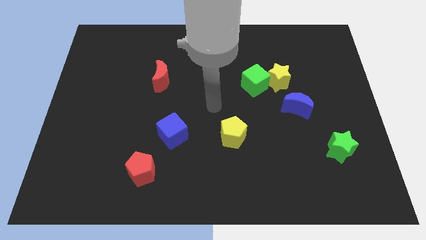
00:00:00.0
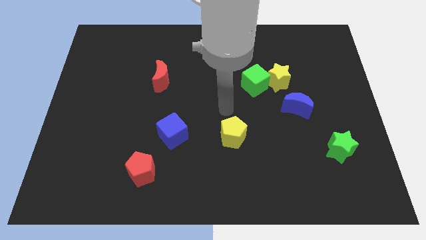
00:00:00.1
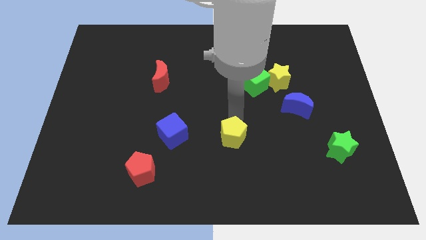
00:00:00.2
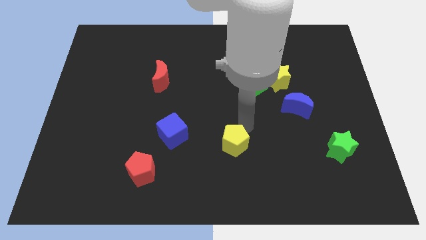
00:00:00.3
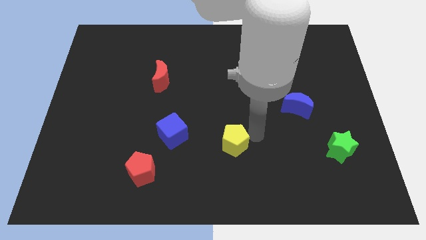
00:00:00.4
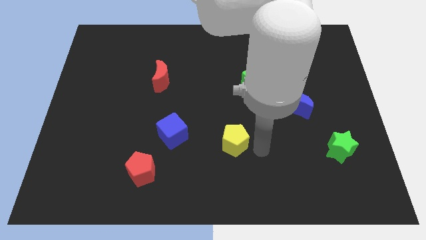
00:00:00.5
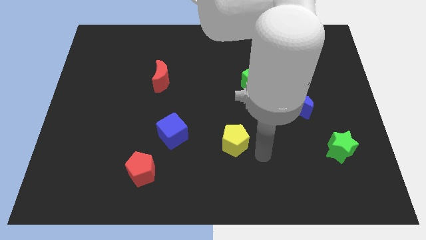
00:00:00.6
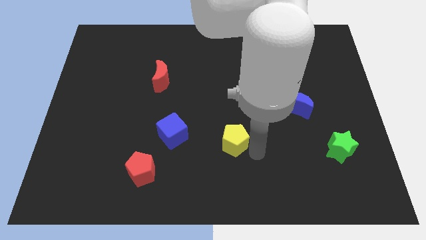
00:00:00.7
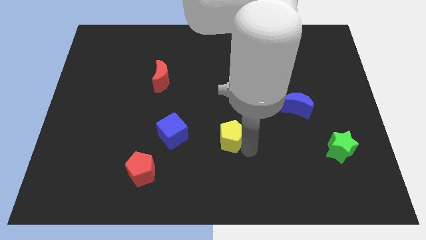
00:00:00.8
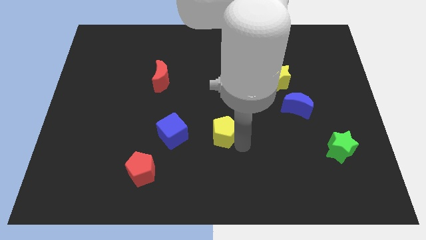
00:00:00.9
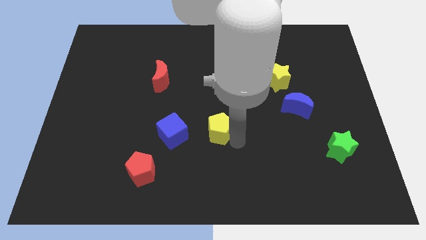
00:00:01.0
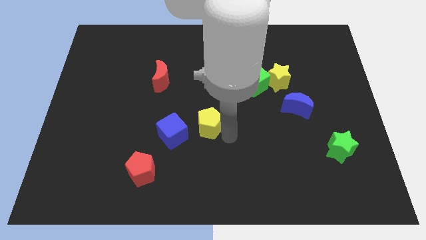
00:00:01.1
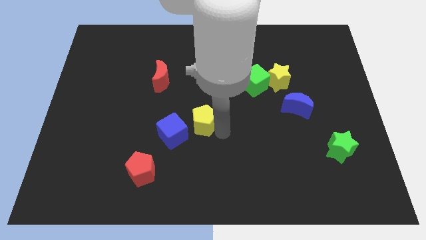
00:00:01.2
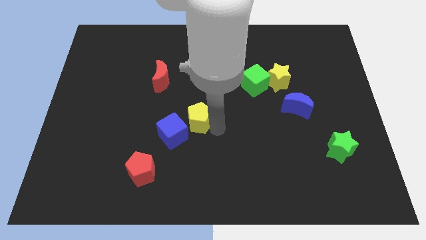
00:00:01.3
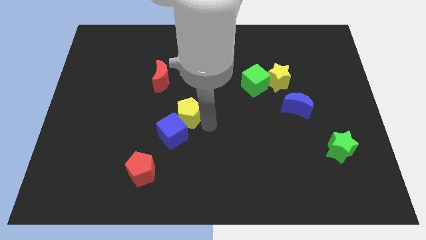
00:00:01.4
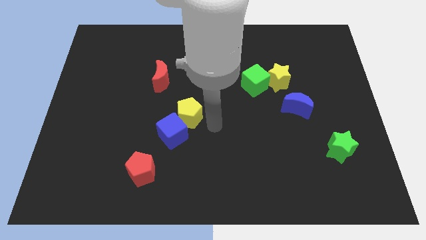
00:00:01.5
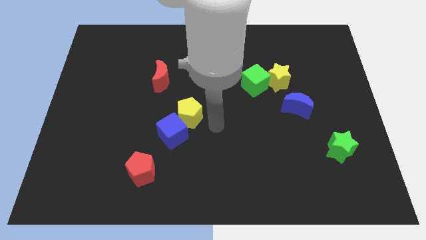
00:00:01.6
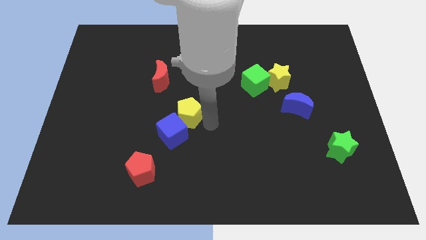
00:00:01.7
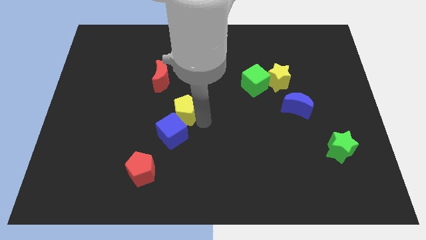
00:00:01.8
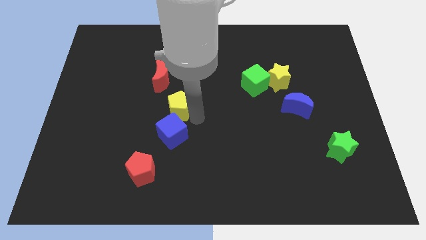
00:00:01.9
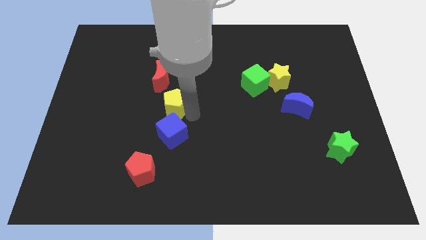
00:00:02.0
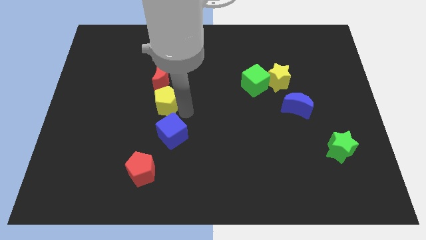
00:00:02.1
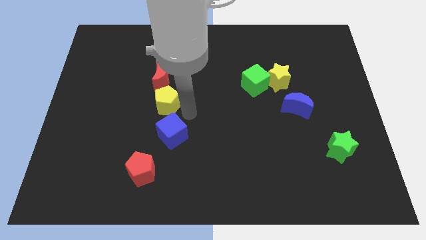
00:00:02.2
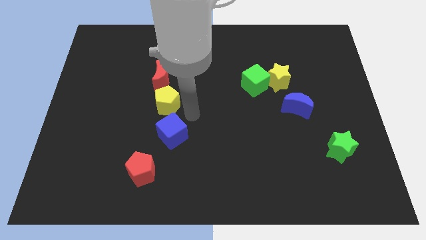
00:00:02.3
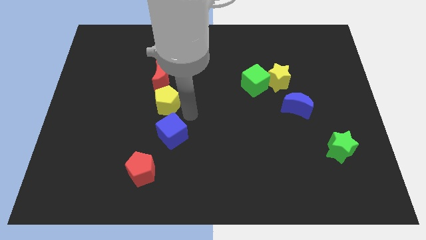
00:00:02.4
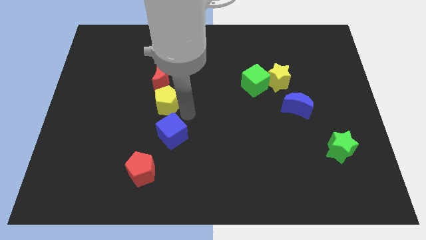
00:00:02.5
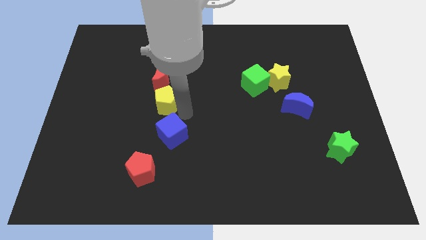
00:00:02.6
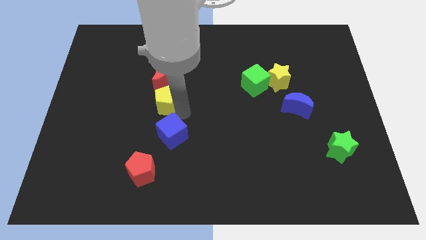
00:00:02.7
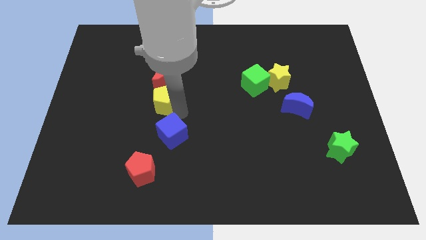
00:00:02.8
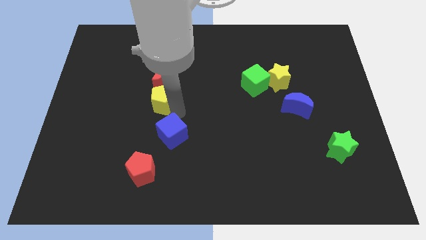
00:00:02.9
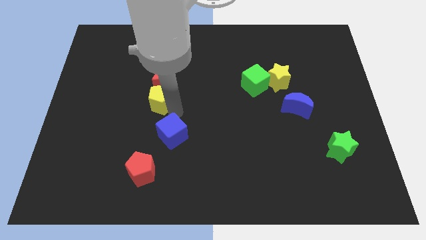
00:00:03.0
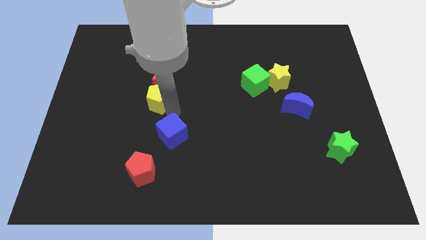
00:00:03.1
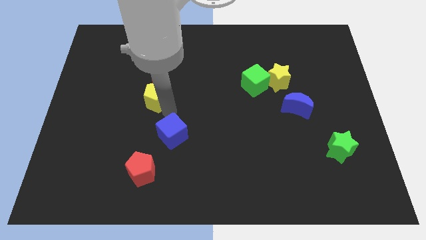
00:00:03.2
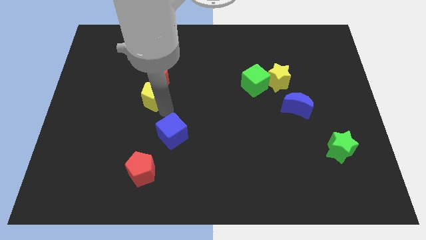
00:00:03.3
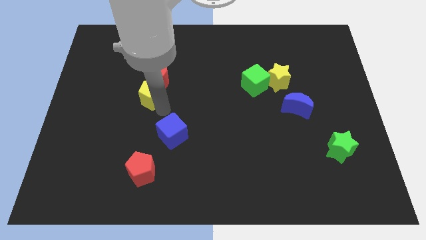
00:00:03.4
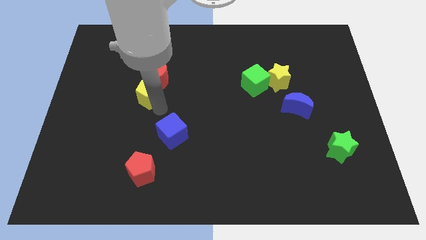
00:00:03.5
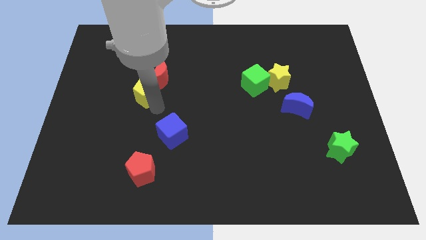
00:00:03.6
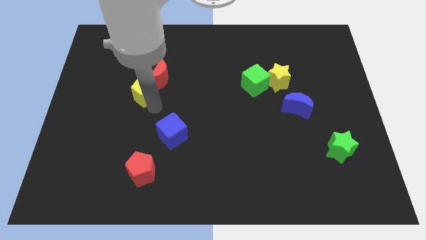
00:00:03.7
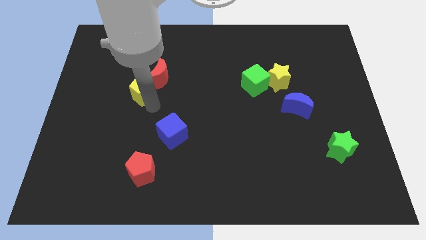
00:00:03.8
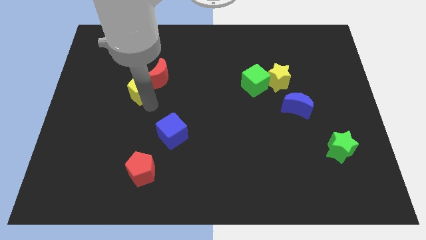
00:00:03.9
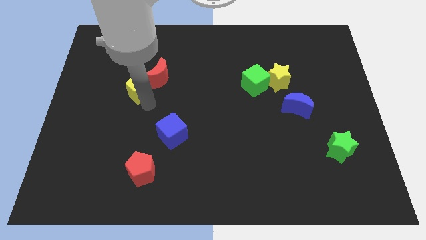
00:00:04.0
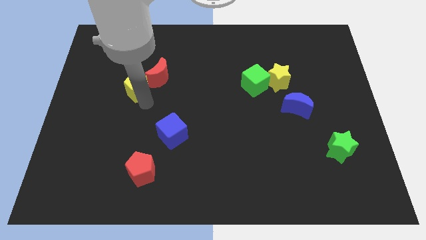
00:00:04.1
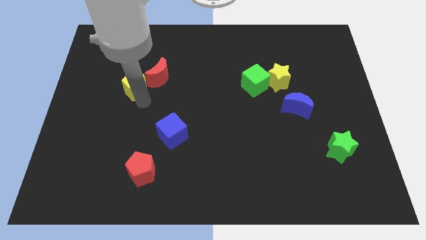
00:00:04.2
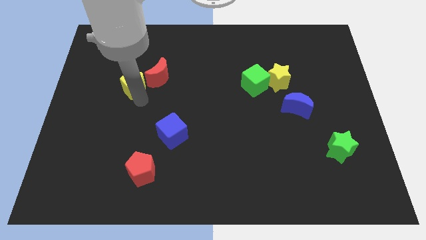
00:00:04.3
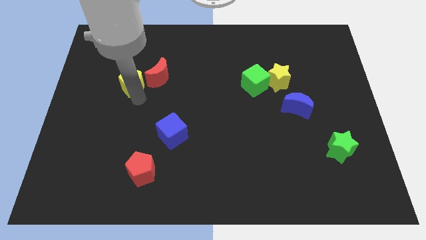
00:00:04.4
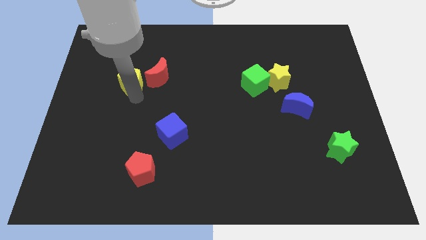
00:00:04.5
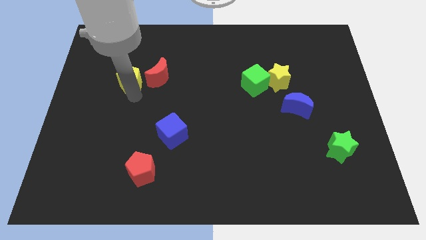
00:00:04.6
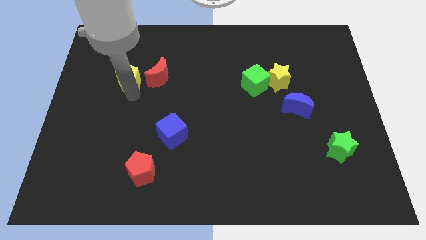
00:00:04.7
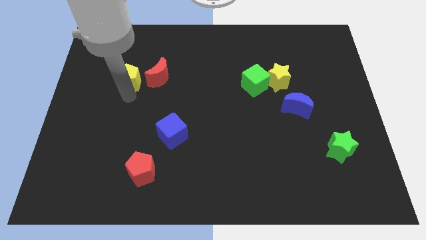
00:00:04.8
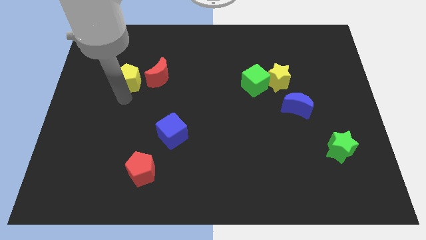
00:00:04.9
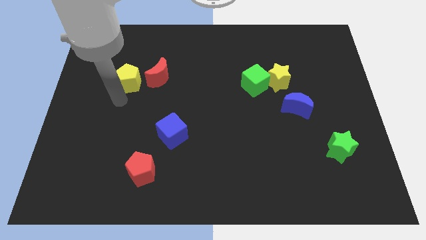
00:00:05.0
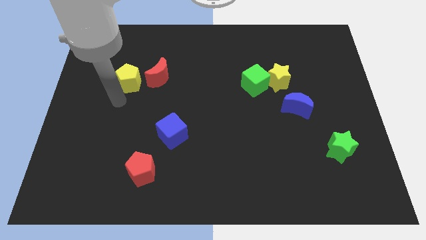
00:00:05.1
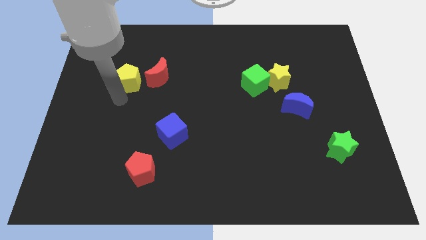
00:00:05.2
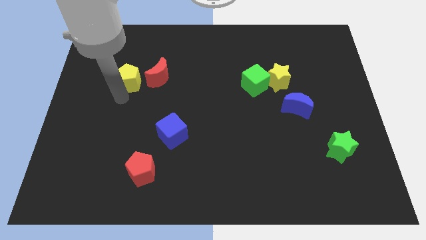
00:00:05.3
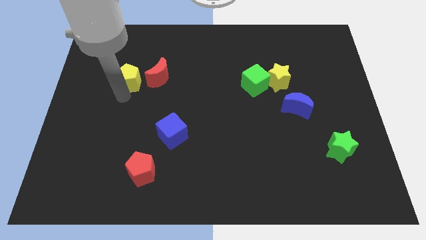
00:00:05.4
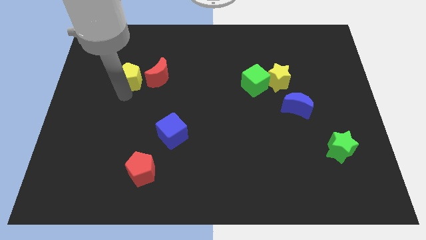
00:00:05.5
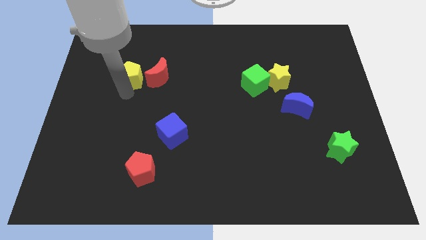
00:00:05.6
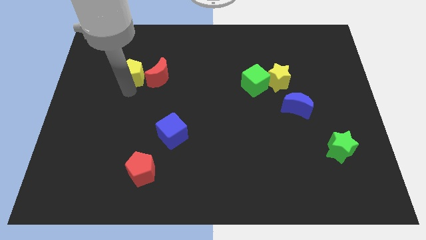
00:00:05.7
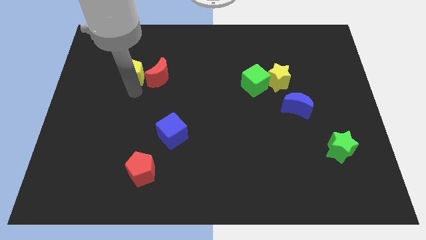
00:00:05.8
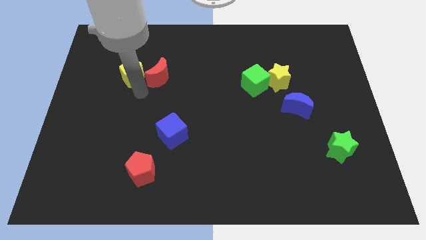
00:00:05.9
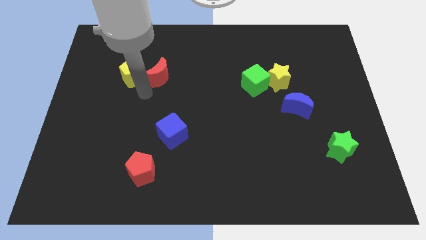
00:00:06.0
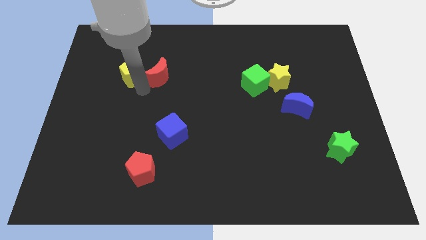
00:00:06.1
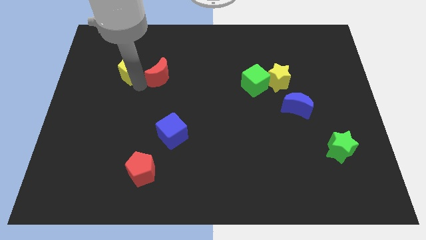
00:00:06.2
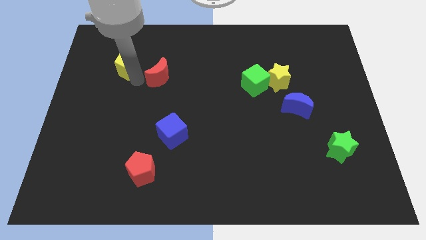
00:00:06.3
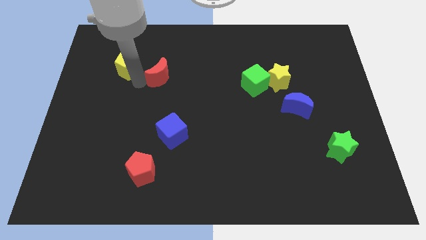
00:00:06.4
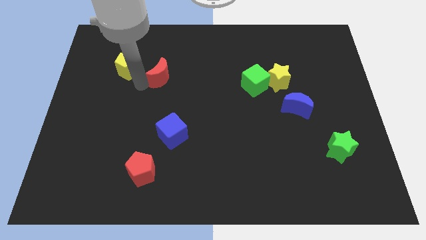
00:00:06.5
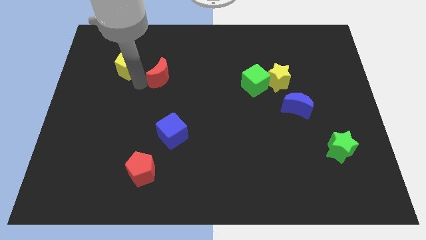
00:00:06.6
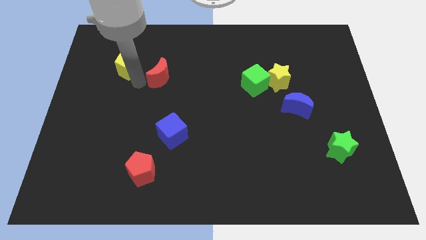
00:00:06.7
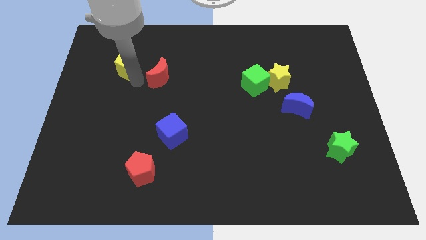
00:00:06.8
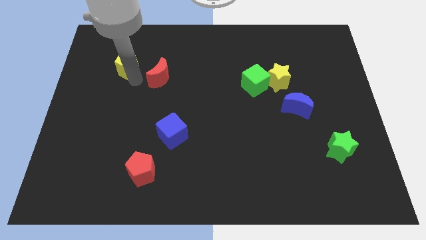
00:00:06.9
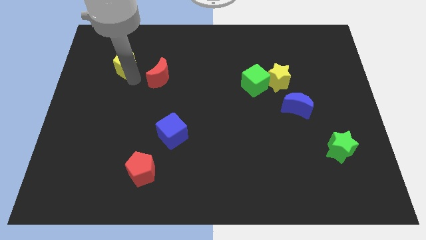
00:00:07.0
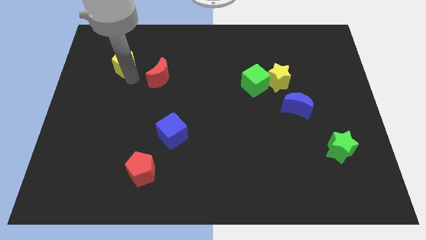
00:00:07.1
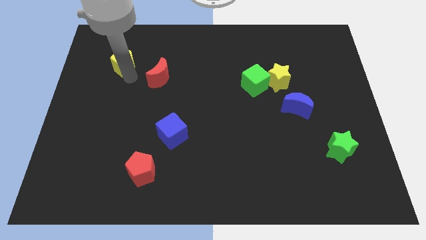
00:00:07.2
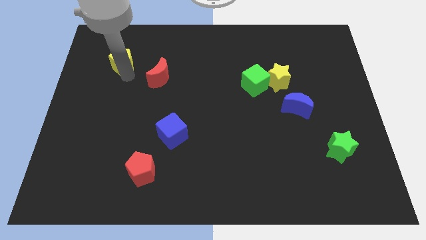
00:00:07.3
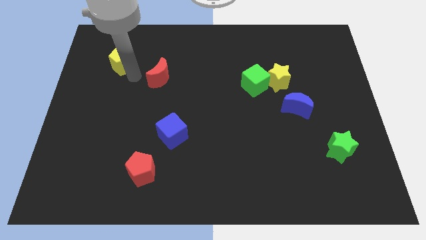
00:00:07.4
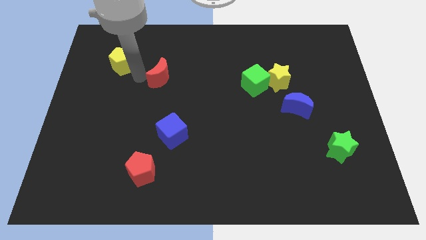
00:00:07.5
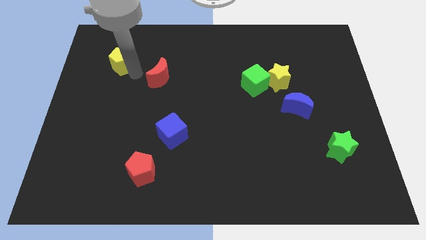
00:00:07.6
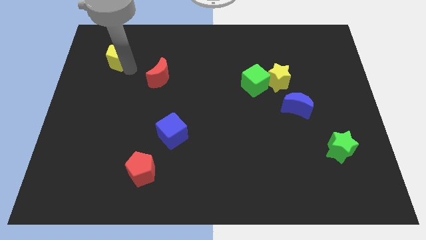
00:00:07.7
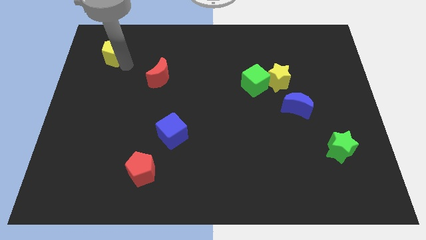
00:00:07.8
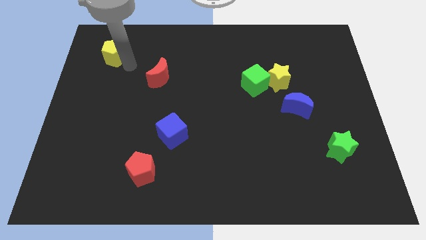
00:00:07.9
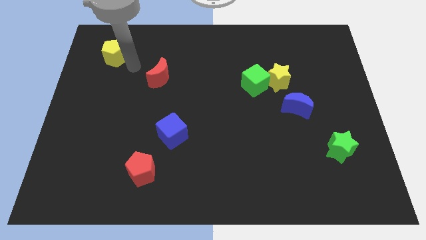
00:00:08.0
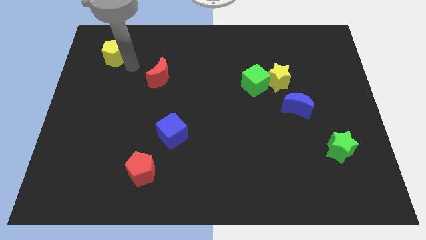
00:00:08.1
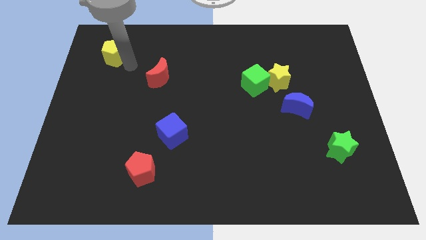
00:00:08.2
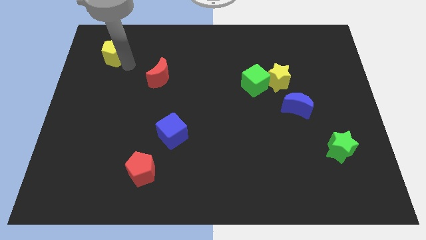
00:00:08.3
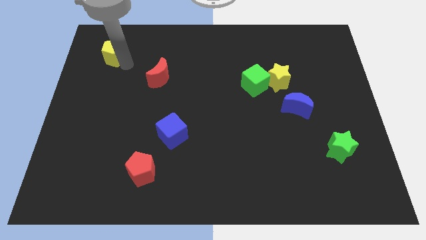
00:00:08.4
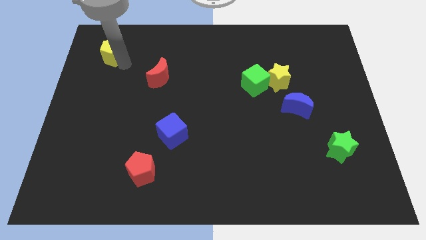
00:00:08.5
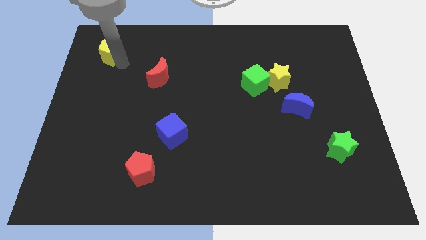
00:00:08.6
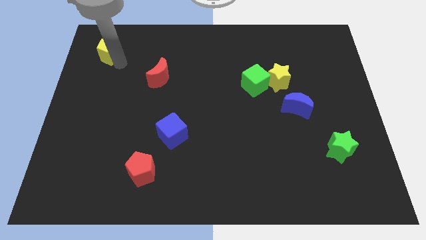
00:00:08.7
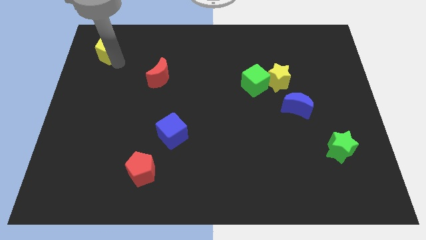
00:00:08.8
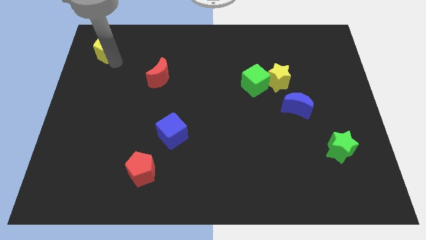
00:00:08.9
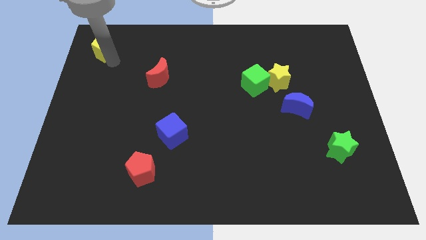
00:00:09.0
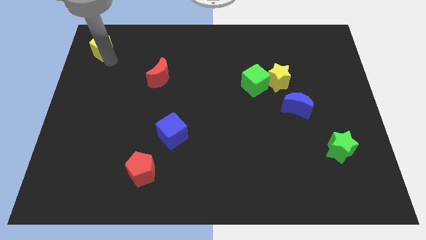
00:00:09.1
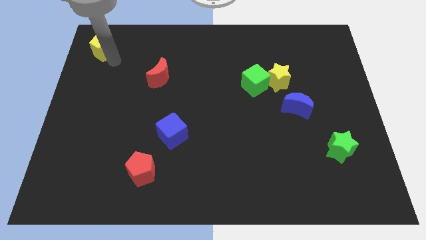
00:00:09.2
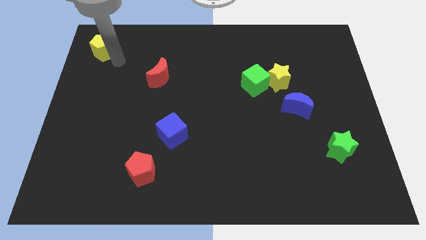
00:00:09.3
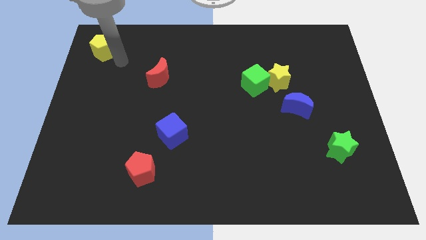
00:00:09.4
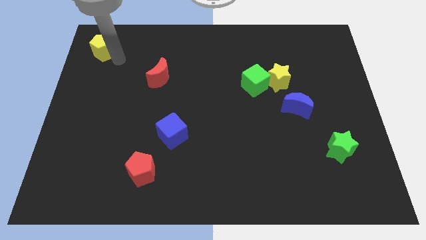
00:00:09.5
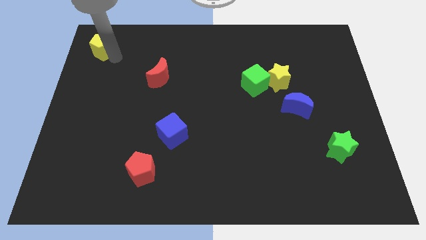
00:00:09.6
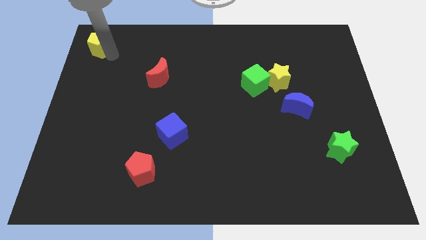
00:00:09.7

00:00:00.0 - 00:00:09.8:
move the yellow pentagon to the top left
